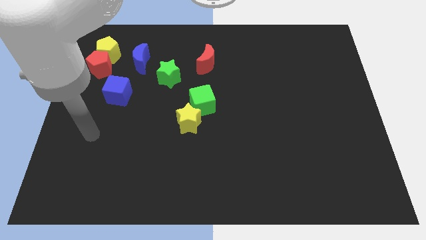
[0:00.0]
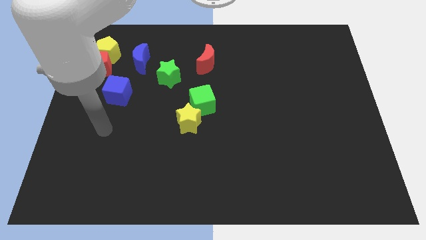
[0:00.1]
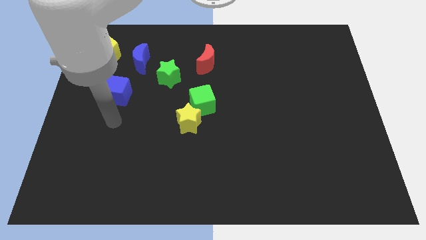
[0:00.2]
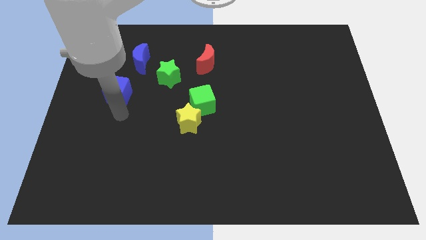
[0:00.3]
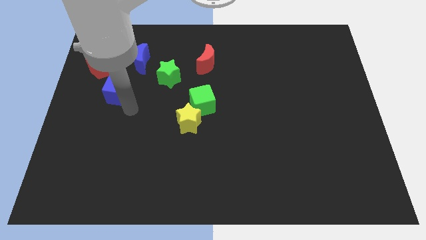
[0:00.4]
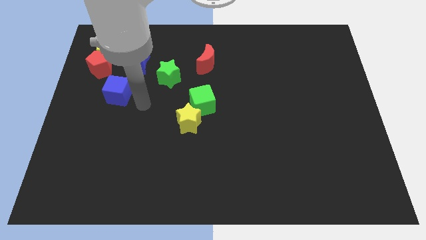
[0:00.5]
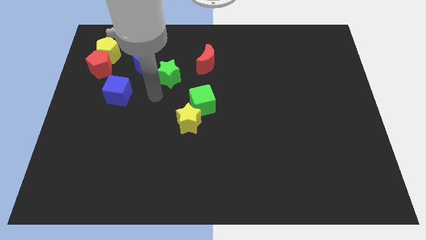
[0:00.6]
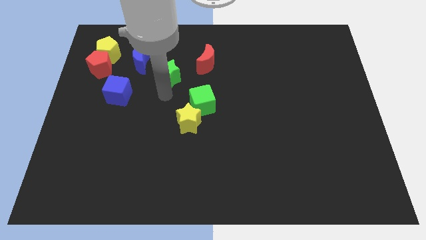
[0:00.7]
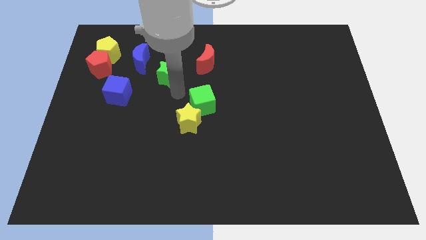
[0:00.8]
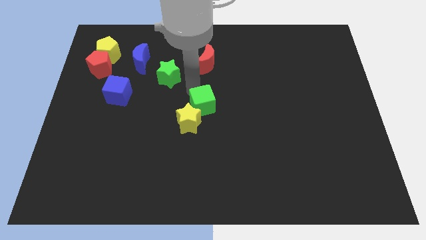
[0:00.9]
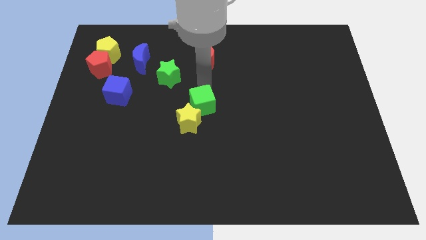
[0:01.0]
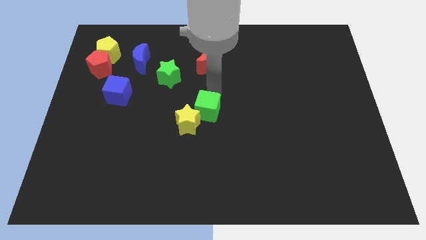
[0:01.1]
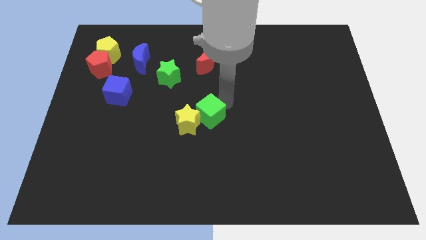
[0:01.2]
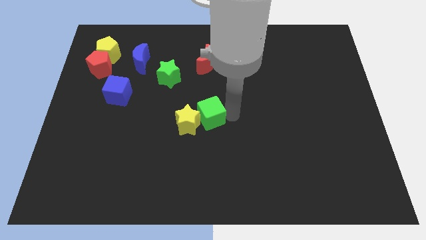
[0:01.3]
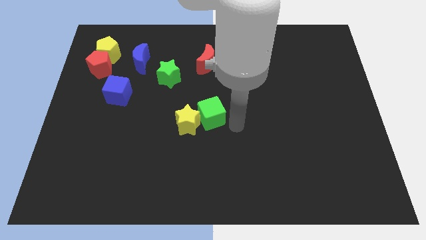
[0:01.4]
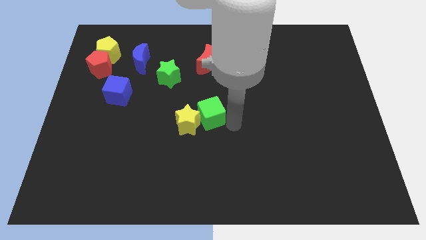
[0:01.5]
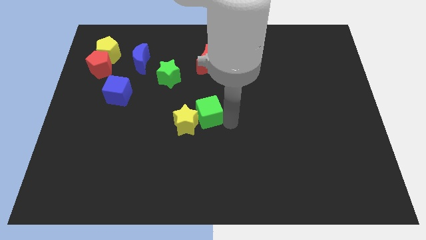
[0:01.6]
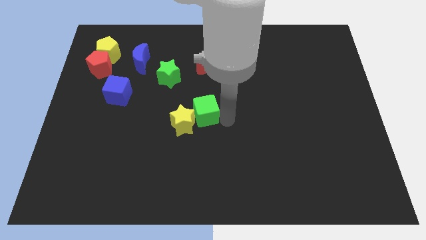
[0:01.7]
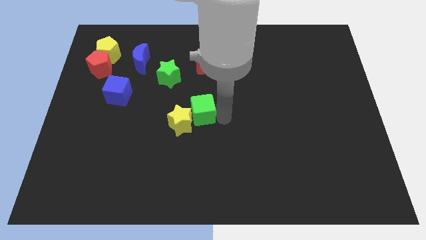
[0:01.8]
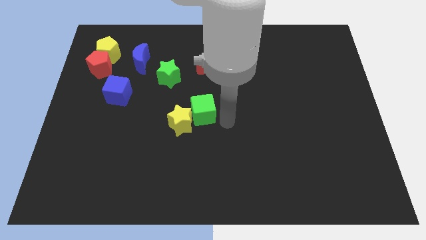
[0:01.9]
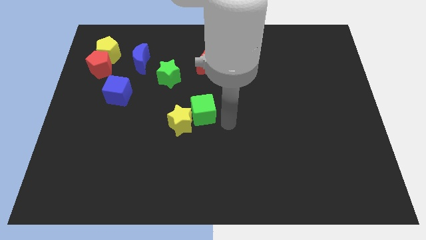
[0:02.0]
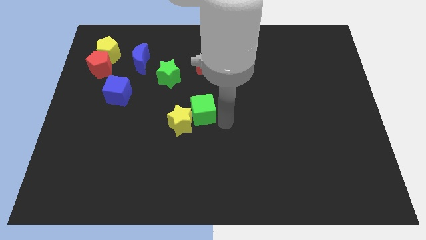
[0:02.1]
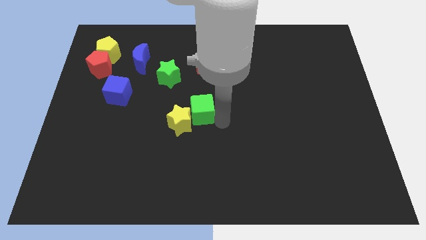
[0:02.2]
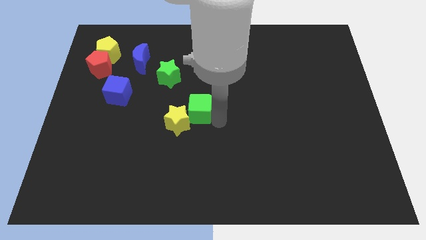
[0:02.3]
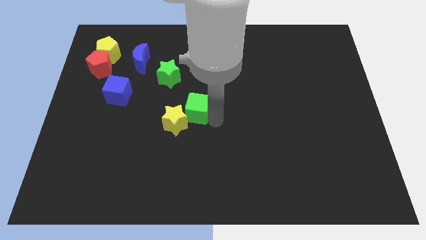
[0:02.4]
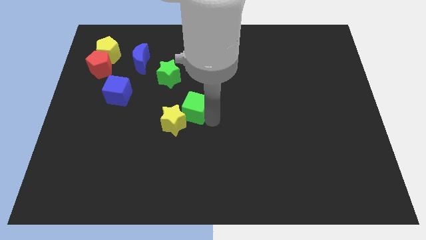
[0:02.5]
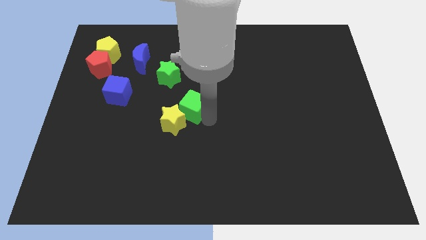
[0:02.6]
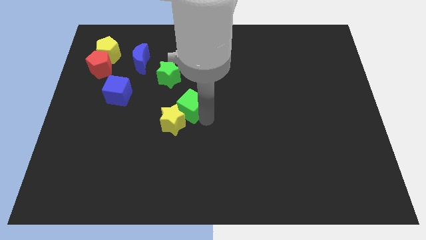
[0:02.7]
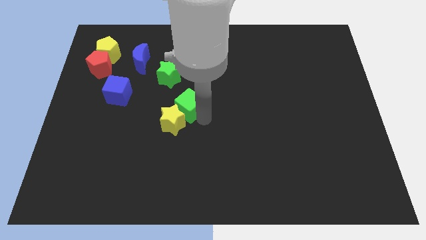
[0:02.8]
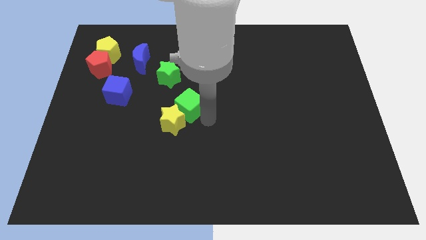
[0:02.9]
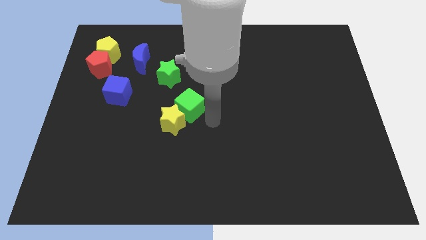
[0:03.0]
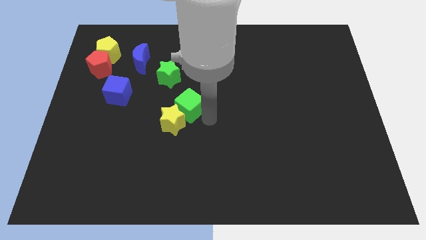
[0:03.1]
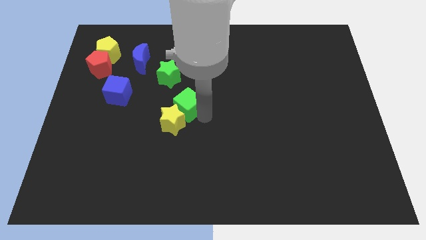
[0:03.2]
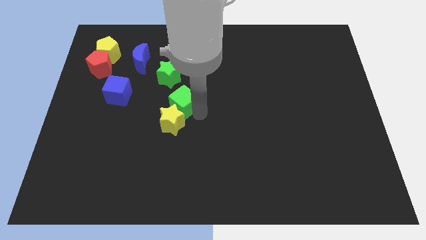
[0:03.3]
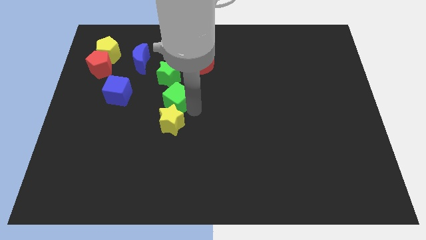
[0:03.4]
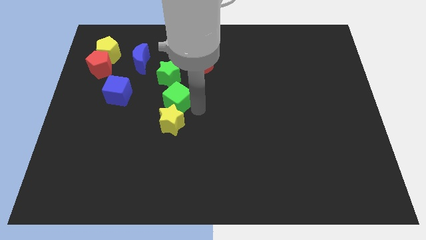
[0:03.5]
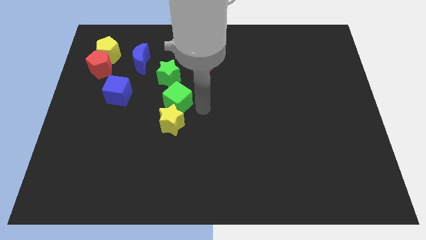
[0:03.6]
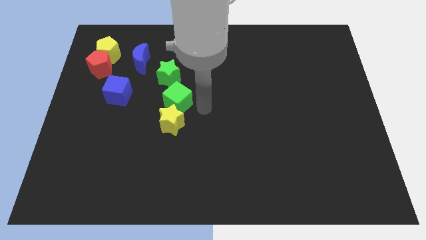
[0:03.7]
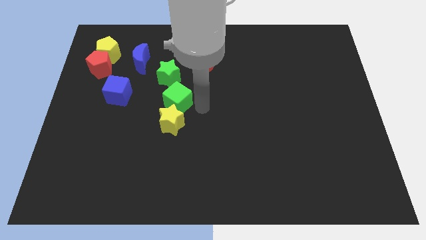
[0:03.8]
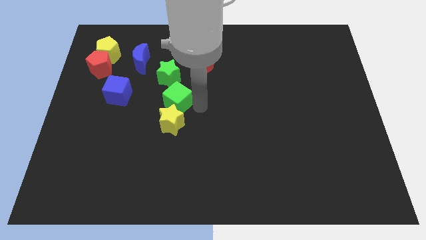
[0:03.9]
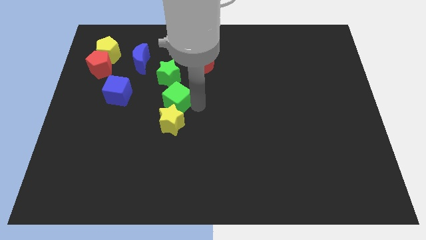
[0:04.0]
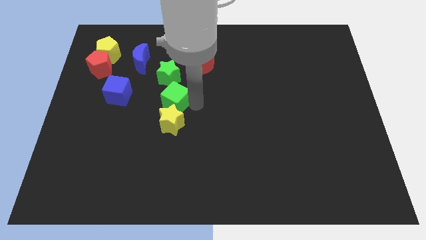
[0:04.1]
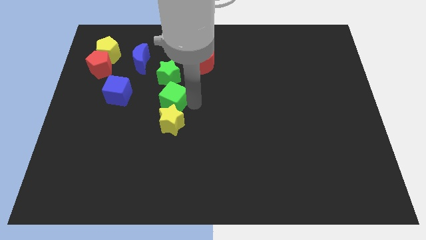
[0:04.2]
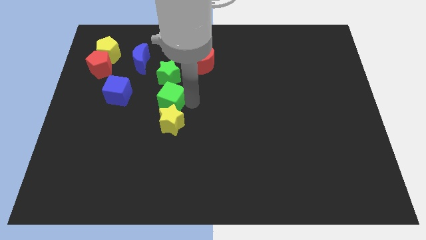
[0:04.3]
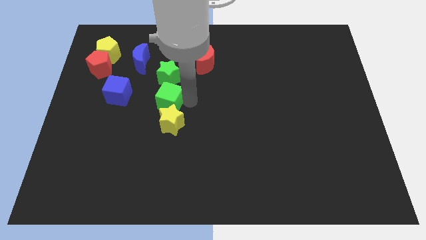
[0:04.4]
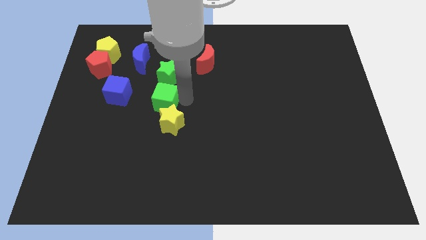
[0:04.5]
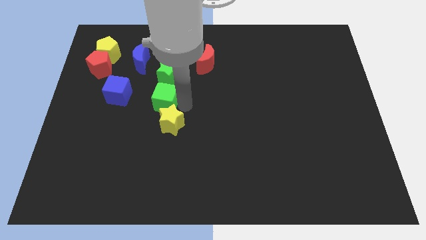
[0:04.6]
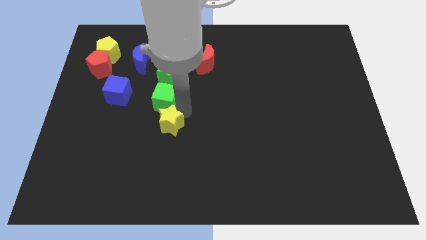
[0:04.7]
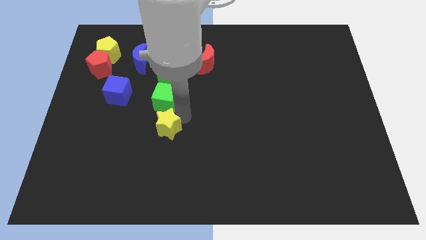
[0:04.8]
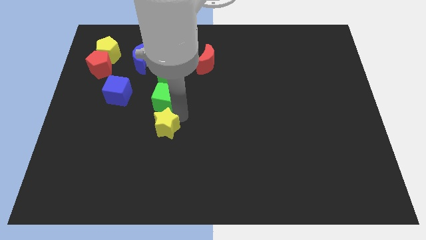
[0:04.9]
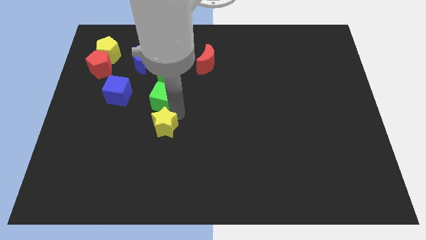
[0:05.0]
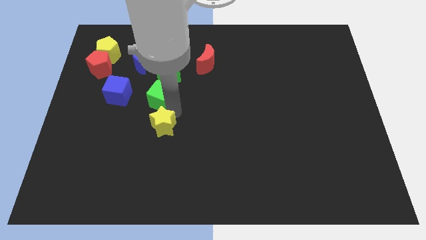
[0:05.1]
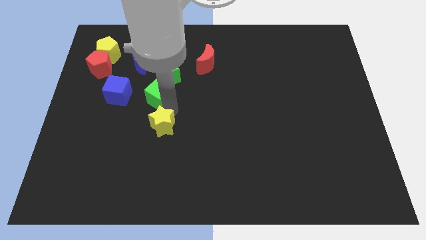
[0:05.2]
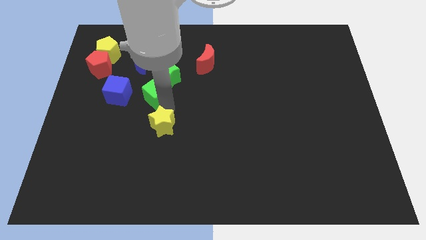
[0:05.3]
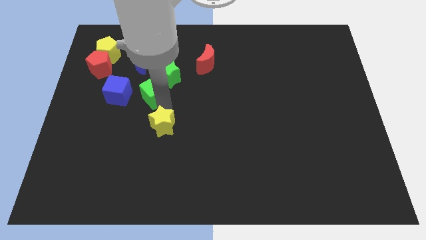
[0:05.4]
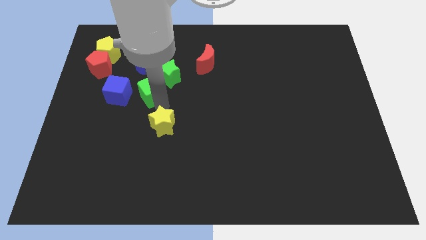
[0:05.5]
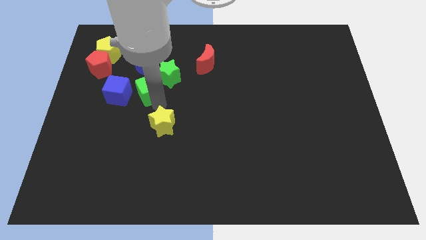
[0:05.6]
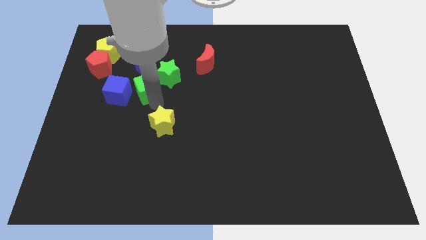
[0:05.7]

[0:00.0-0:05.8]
push the green cube to the top right of the blue cube

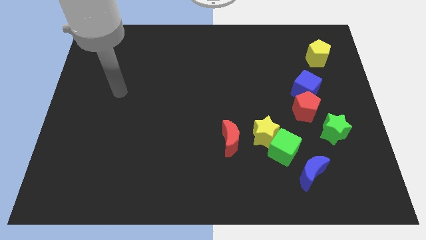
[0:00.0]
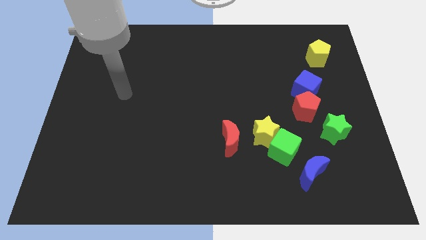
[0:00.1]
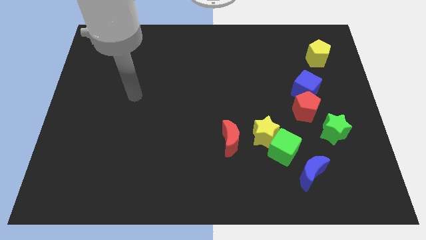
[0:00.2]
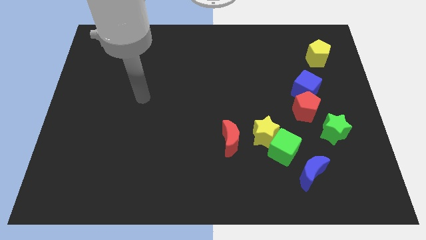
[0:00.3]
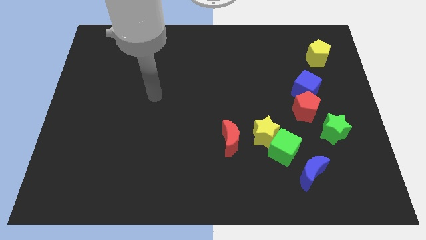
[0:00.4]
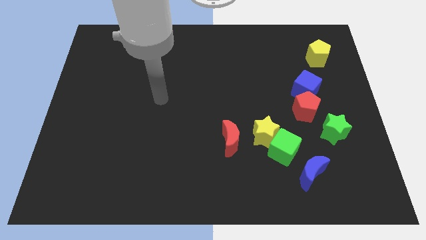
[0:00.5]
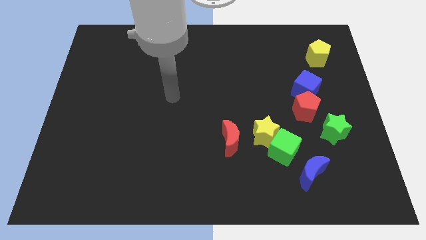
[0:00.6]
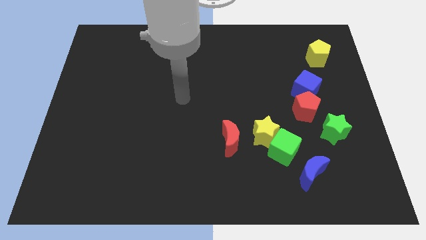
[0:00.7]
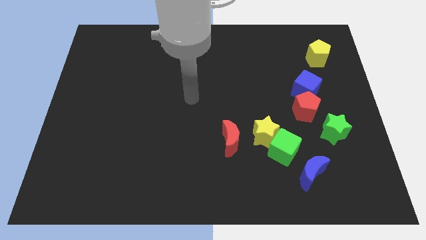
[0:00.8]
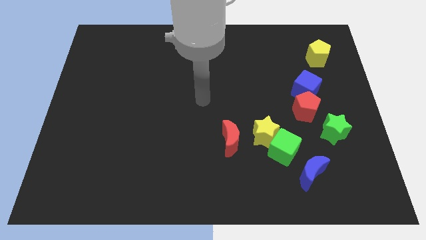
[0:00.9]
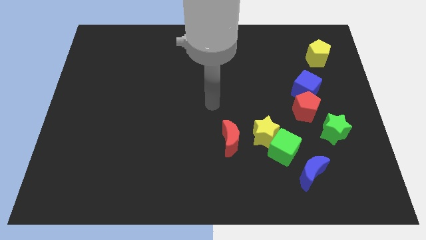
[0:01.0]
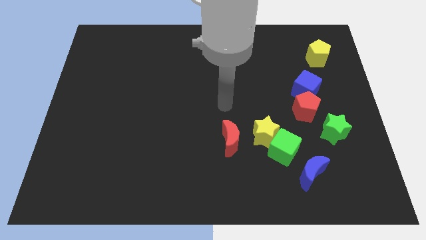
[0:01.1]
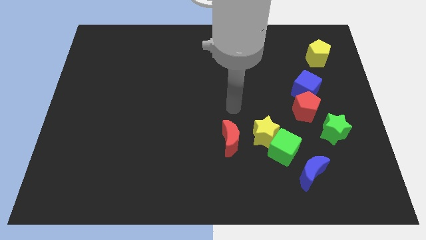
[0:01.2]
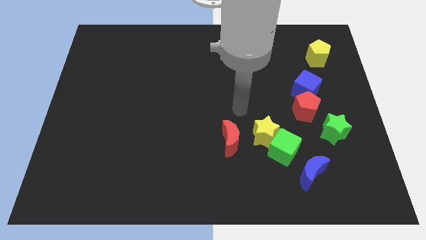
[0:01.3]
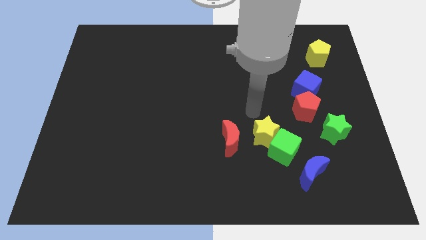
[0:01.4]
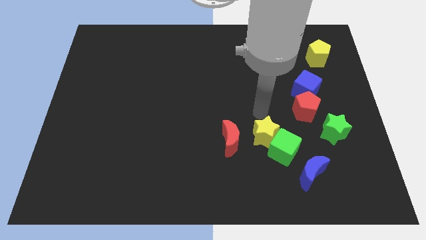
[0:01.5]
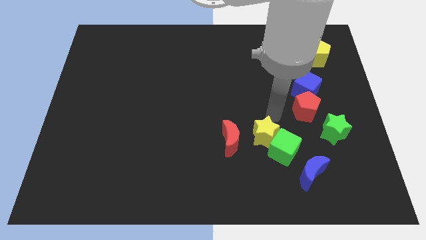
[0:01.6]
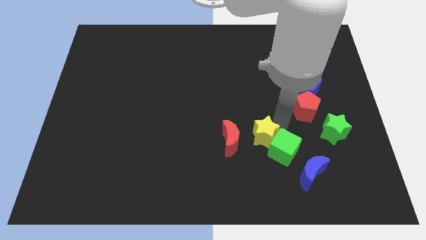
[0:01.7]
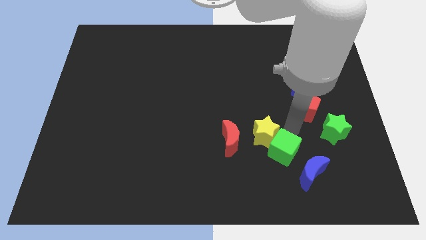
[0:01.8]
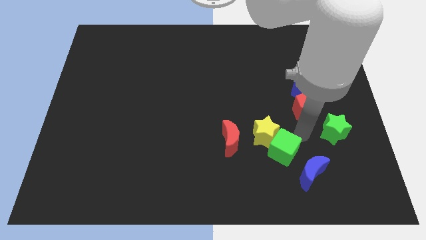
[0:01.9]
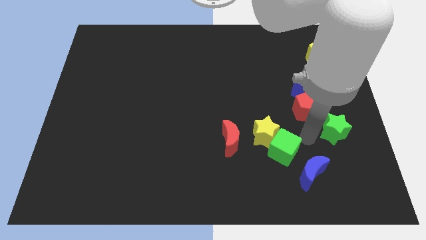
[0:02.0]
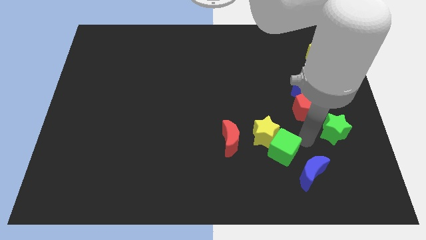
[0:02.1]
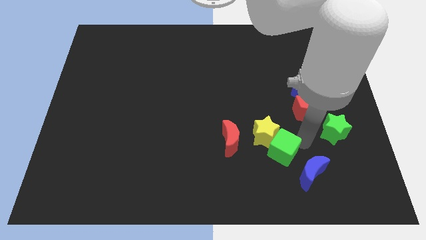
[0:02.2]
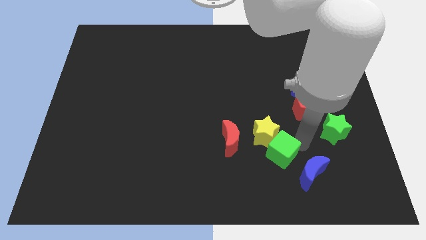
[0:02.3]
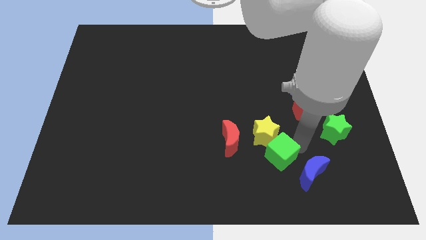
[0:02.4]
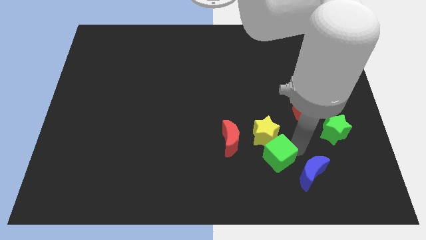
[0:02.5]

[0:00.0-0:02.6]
put the green cube to the bottom right side of the red moon
